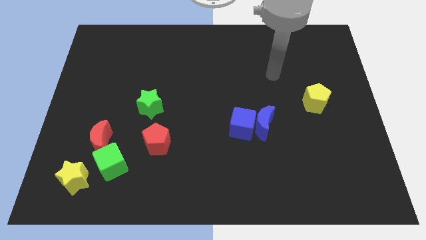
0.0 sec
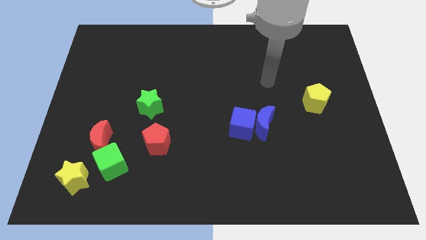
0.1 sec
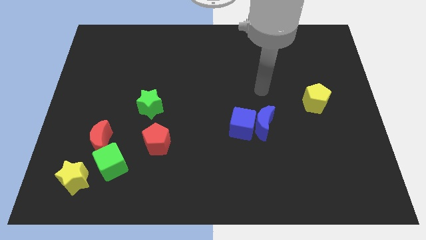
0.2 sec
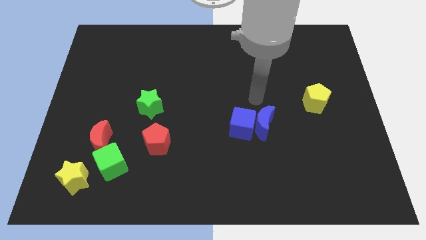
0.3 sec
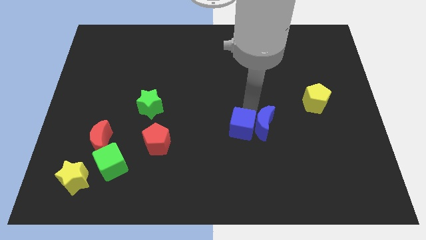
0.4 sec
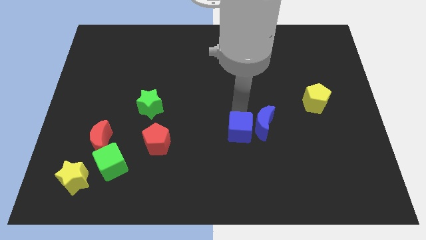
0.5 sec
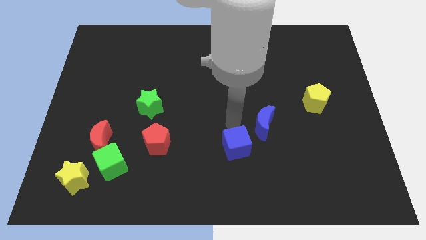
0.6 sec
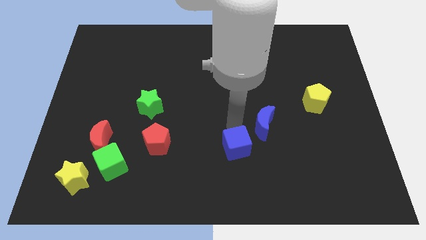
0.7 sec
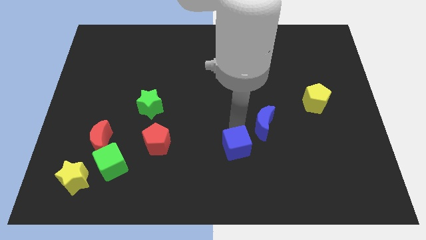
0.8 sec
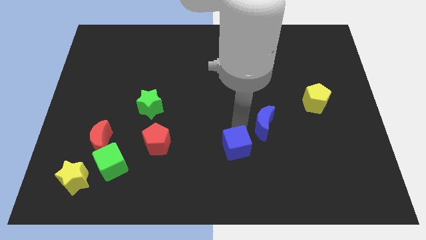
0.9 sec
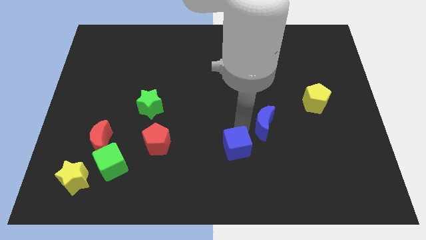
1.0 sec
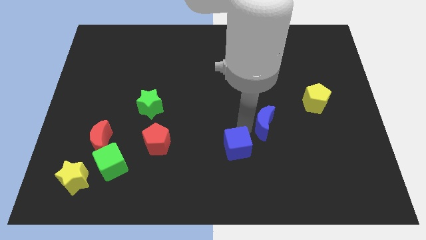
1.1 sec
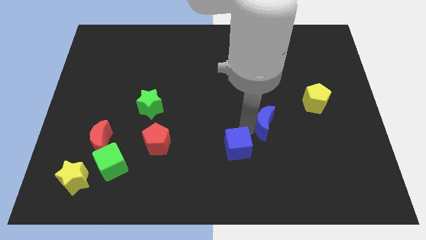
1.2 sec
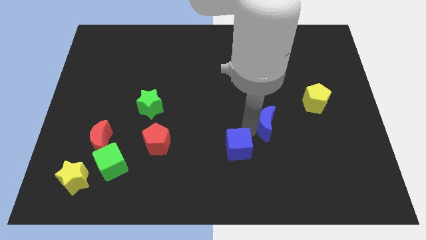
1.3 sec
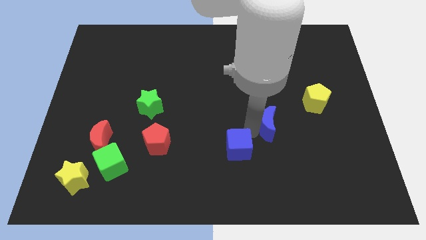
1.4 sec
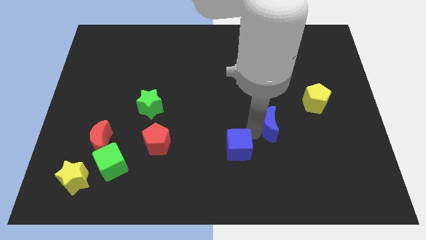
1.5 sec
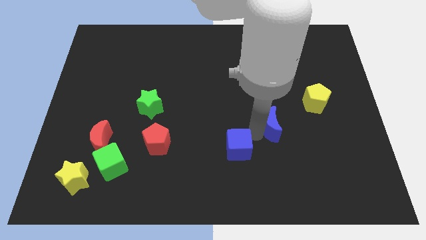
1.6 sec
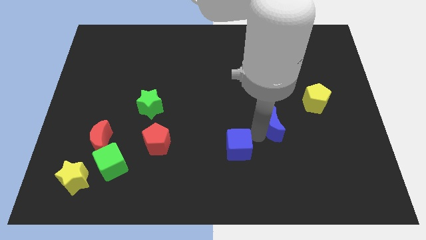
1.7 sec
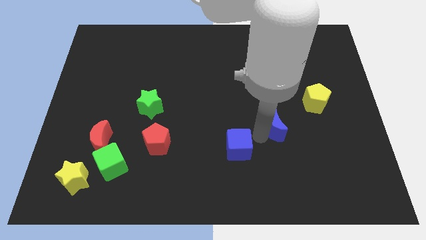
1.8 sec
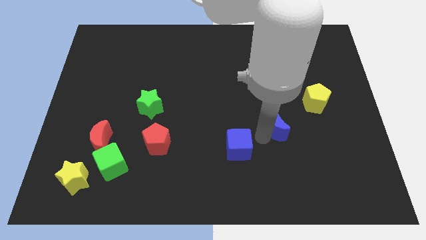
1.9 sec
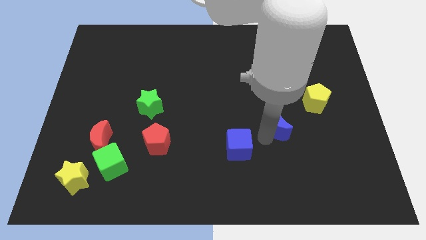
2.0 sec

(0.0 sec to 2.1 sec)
pull the blue moon apart from the blue cube

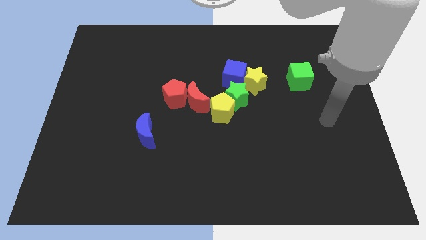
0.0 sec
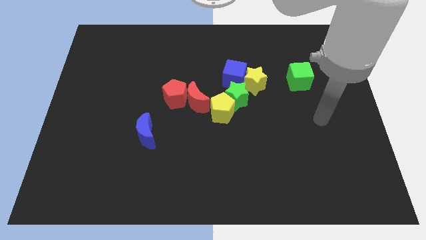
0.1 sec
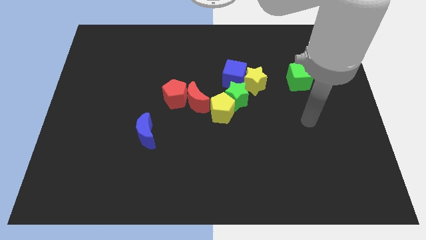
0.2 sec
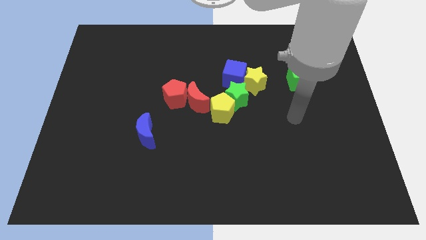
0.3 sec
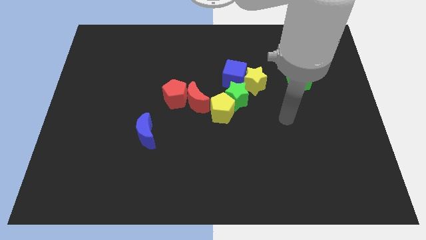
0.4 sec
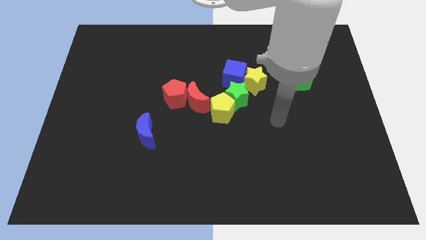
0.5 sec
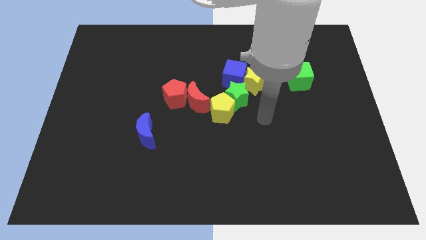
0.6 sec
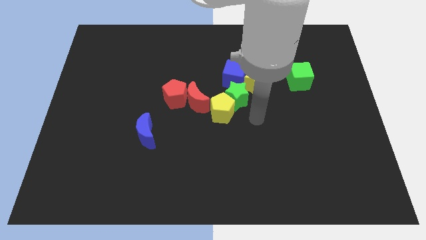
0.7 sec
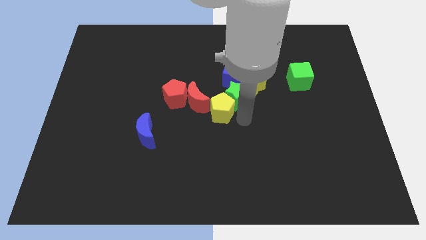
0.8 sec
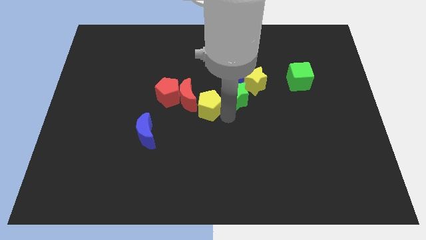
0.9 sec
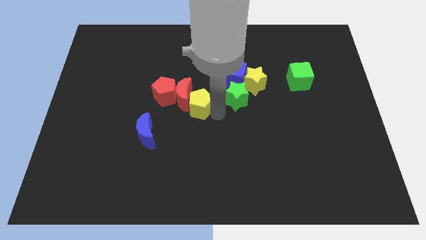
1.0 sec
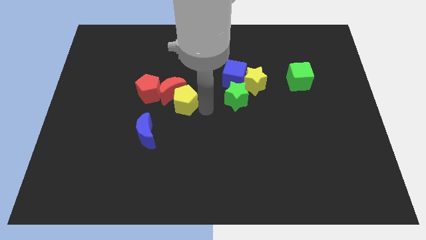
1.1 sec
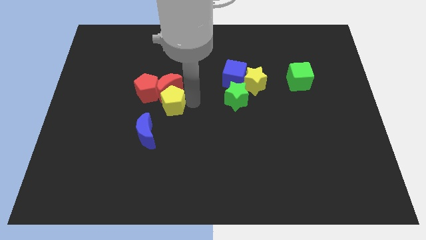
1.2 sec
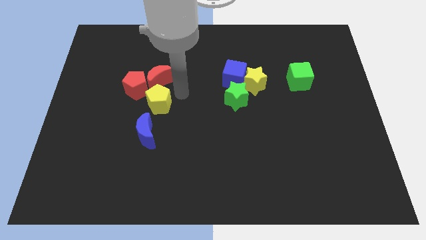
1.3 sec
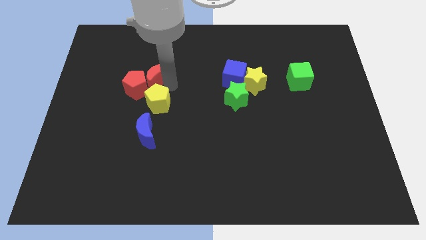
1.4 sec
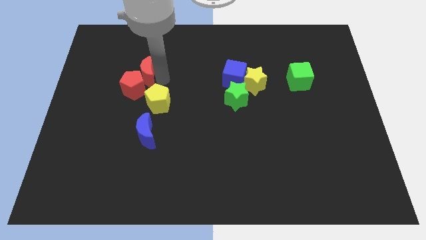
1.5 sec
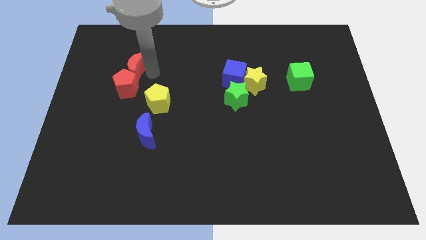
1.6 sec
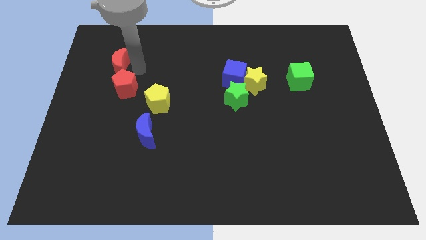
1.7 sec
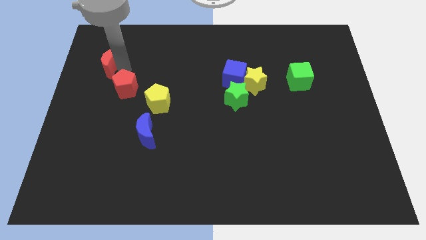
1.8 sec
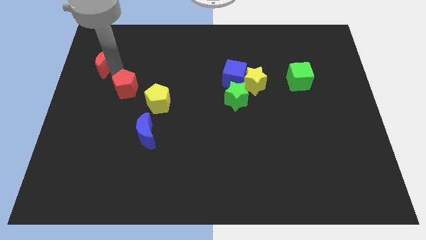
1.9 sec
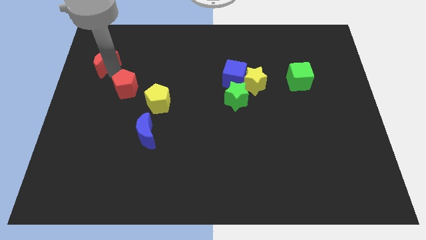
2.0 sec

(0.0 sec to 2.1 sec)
move the red pentagon away from the red moon

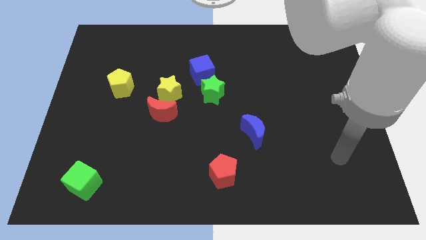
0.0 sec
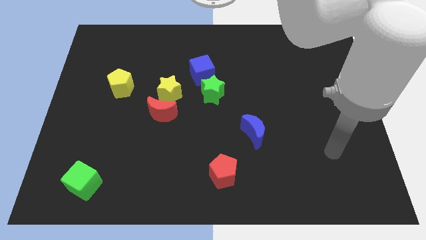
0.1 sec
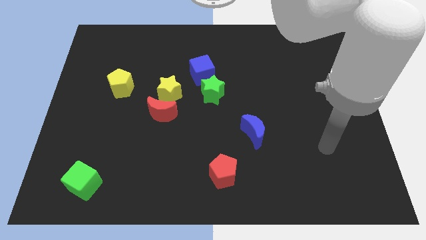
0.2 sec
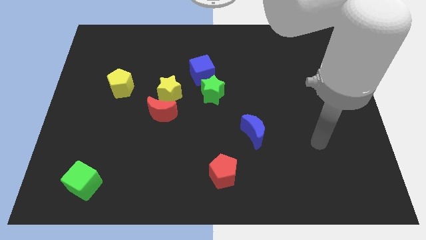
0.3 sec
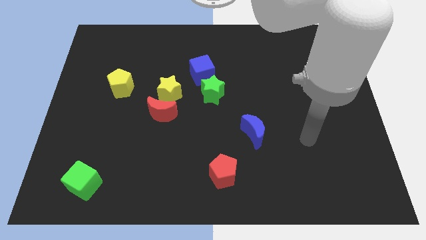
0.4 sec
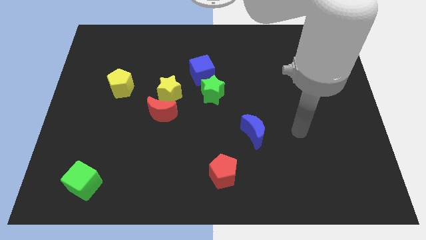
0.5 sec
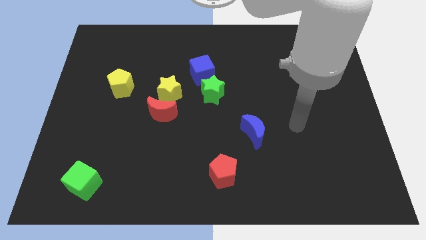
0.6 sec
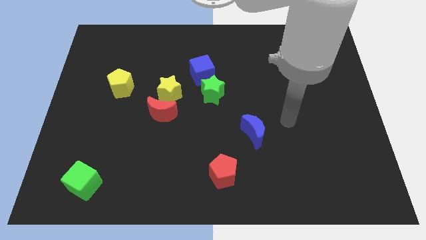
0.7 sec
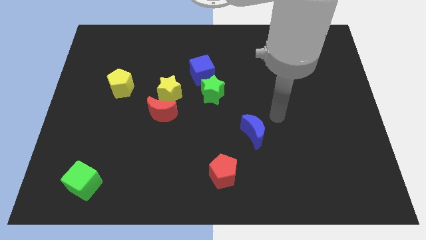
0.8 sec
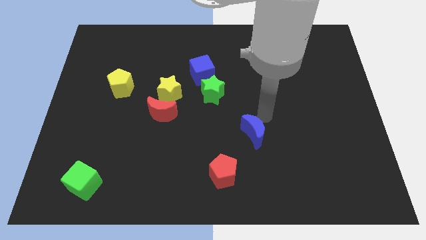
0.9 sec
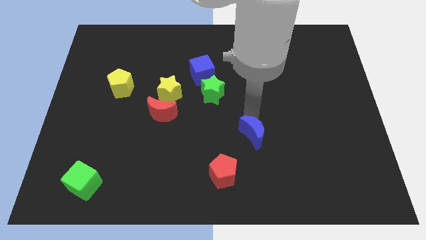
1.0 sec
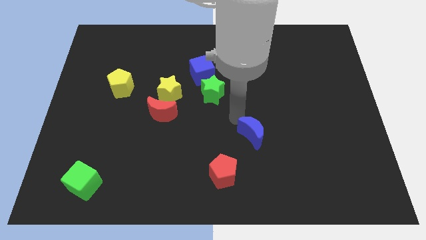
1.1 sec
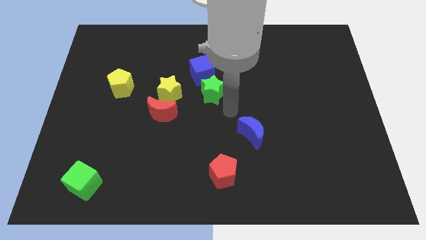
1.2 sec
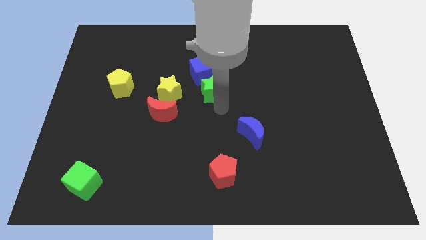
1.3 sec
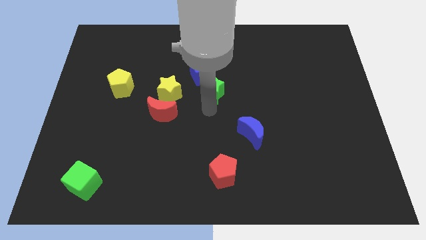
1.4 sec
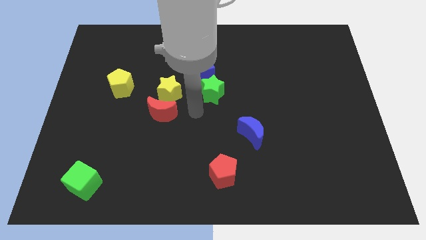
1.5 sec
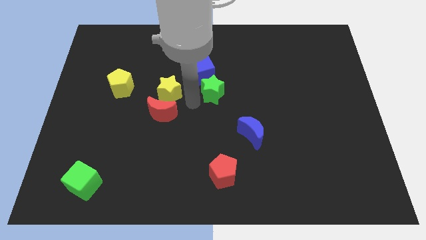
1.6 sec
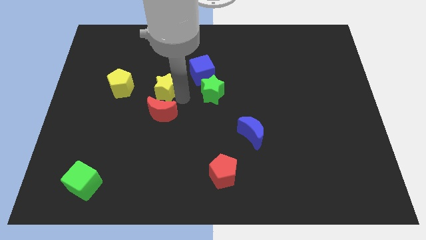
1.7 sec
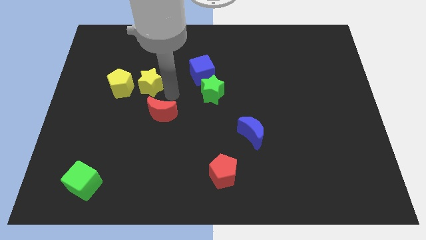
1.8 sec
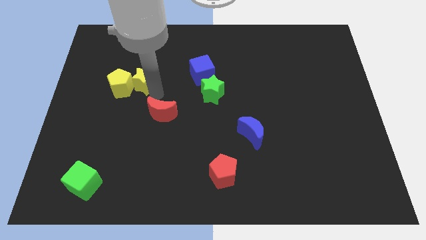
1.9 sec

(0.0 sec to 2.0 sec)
pull the red moon apart from the yellow star

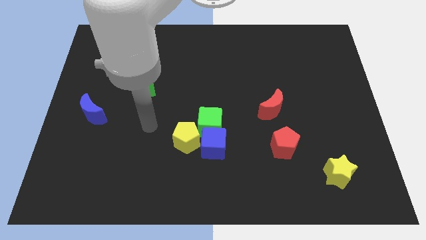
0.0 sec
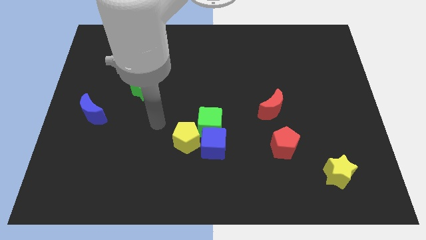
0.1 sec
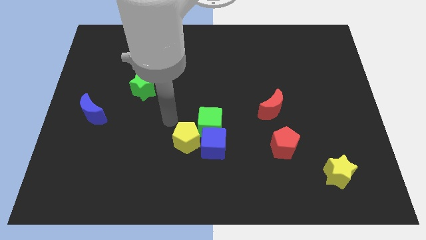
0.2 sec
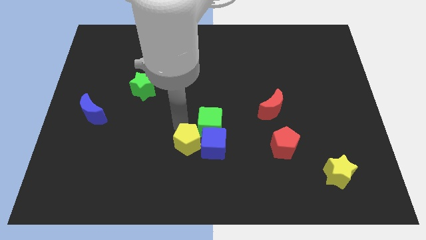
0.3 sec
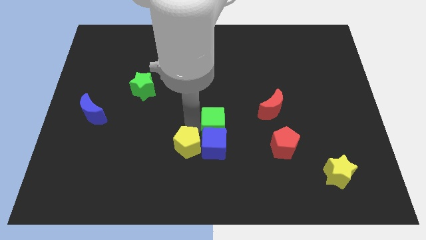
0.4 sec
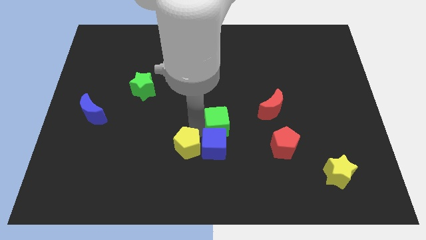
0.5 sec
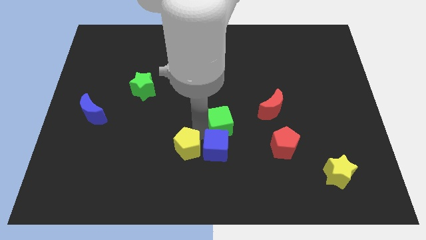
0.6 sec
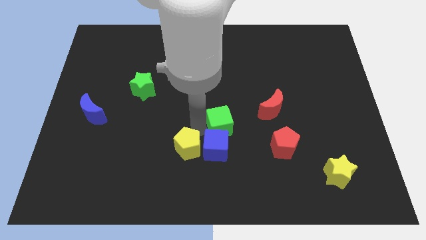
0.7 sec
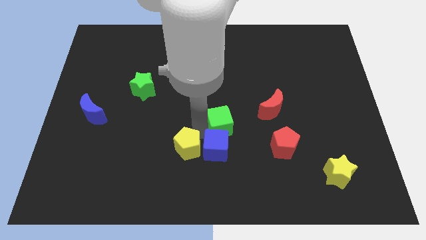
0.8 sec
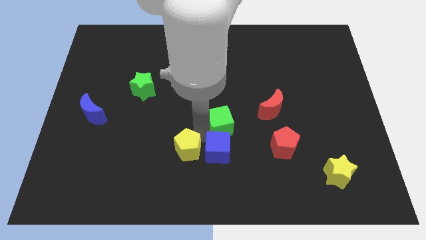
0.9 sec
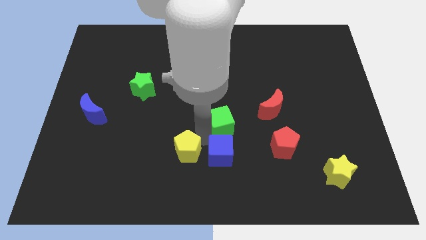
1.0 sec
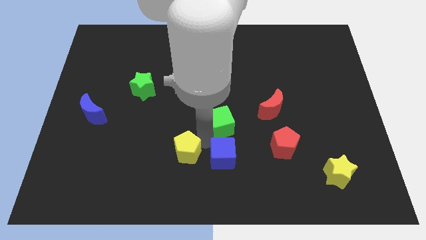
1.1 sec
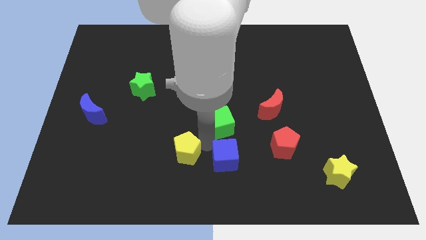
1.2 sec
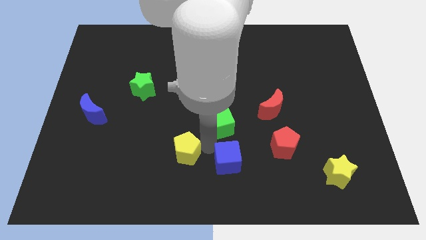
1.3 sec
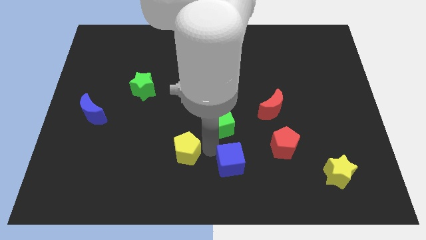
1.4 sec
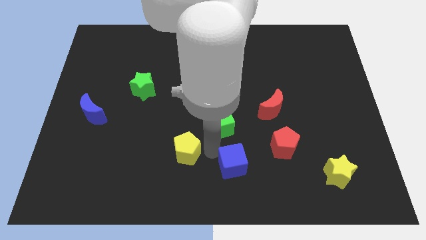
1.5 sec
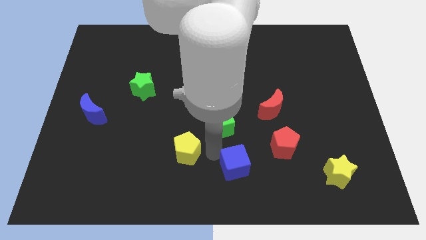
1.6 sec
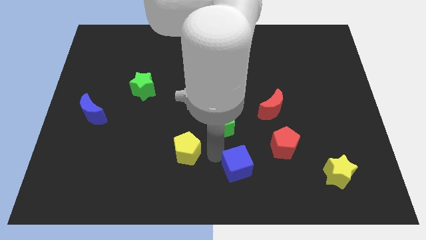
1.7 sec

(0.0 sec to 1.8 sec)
pull the blue cube apart from the green cube and yellow pentagon

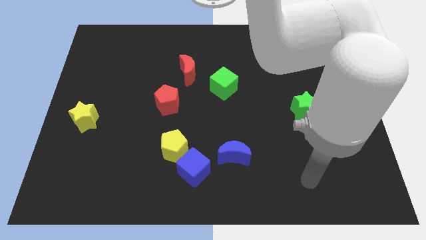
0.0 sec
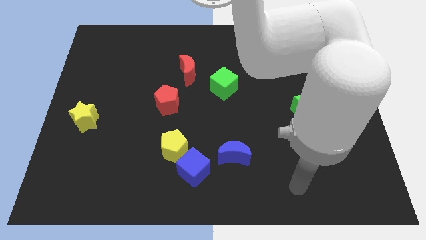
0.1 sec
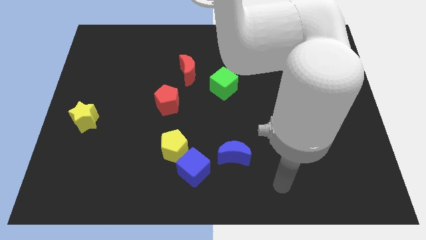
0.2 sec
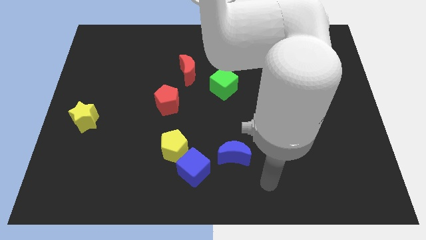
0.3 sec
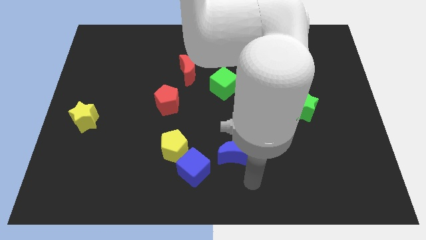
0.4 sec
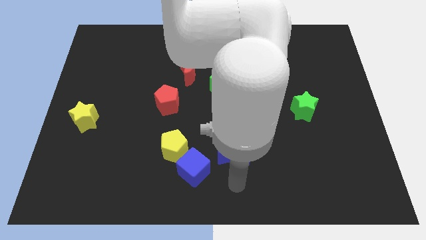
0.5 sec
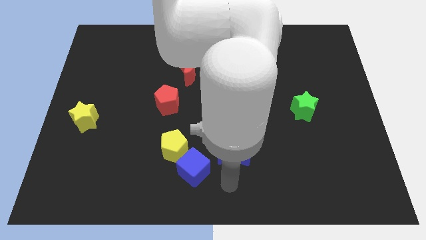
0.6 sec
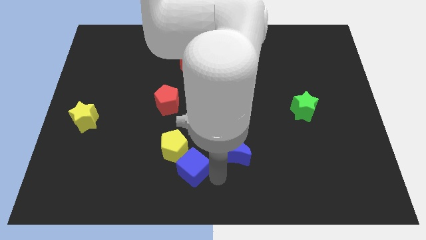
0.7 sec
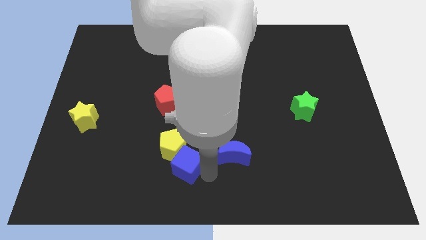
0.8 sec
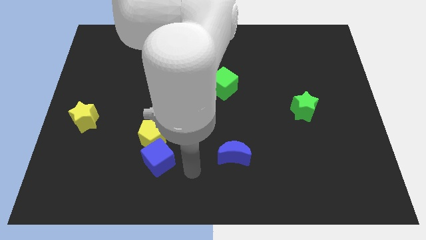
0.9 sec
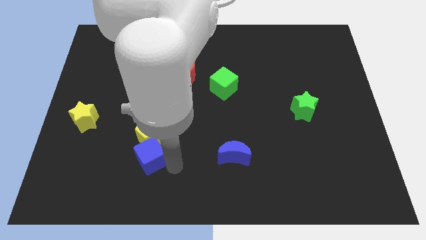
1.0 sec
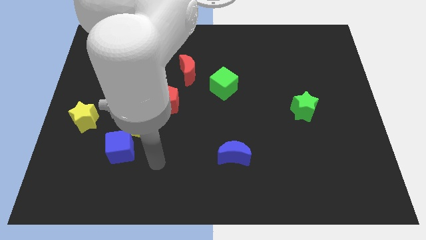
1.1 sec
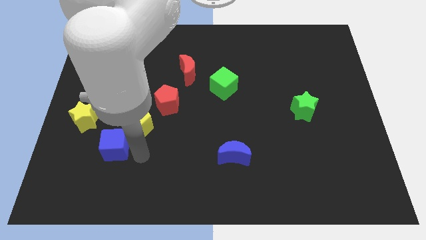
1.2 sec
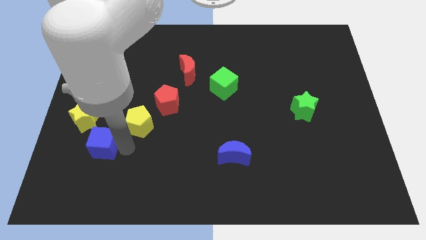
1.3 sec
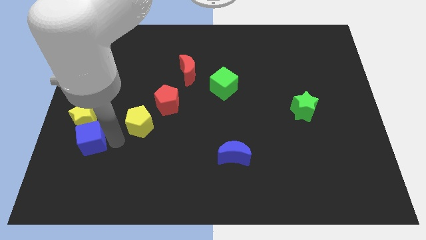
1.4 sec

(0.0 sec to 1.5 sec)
pull the yellow pentagon apart from the blue cube
